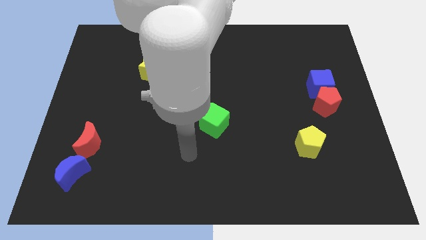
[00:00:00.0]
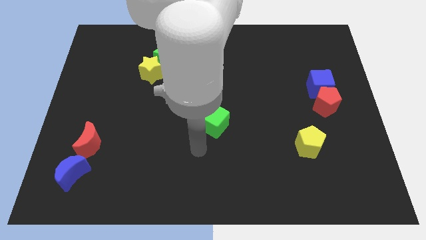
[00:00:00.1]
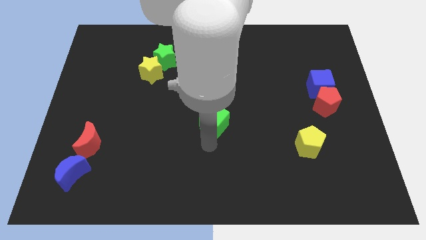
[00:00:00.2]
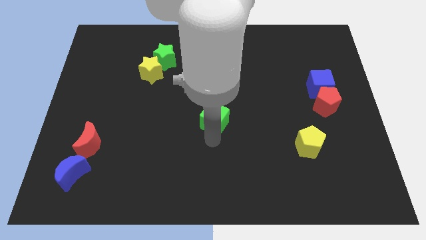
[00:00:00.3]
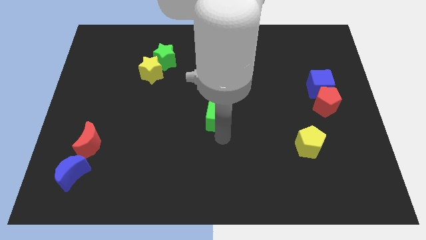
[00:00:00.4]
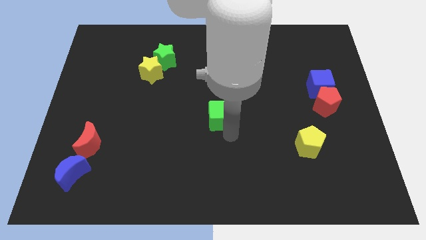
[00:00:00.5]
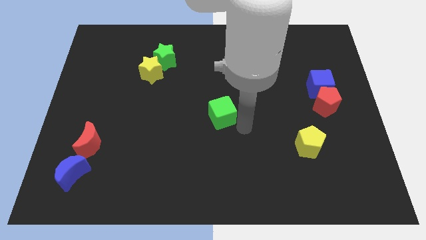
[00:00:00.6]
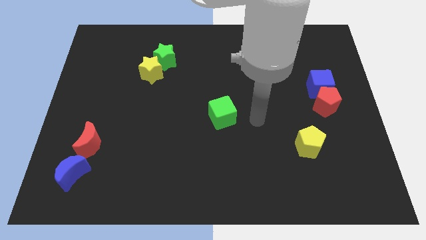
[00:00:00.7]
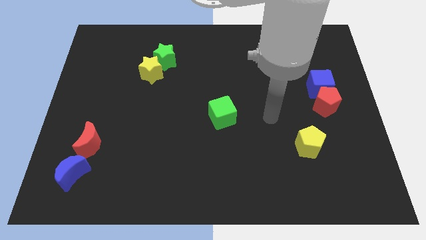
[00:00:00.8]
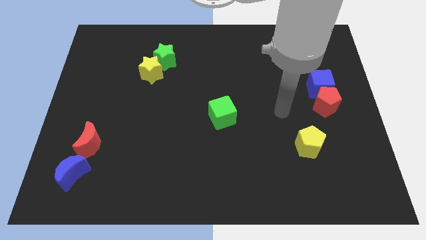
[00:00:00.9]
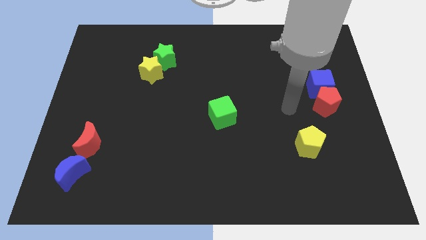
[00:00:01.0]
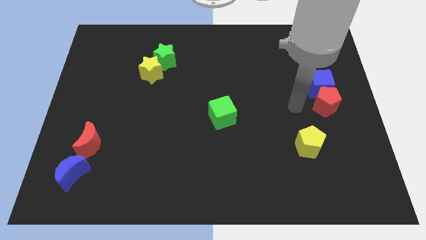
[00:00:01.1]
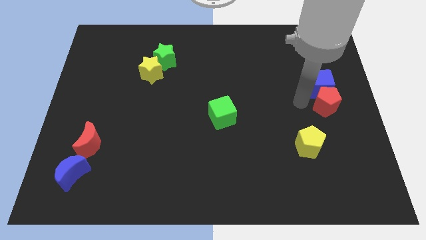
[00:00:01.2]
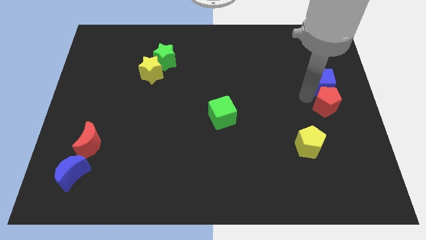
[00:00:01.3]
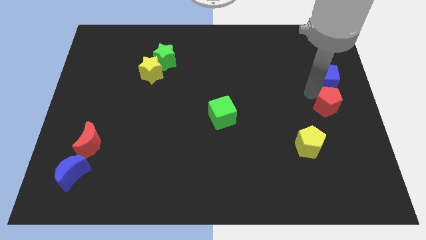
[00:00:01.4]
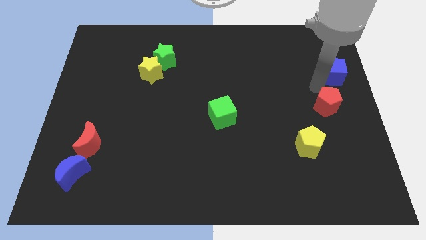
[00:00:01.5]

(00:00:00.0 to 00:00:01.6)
move the red pentagon away from the blue cube

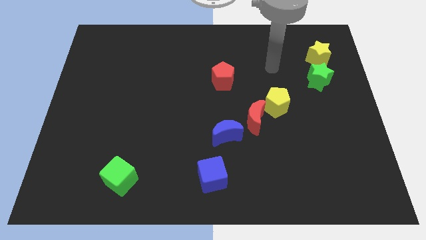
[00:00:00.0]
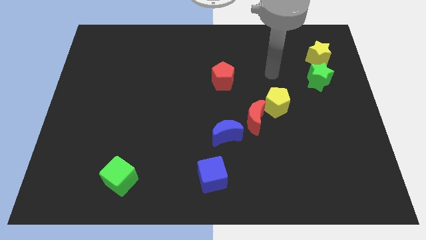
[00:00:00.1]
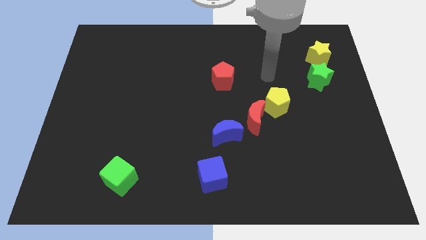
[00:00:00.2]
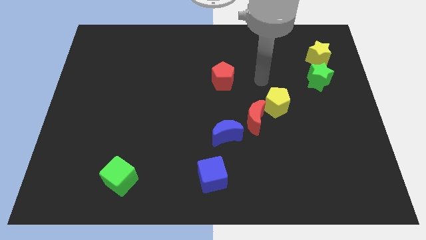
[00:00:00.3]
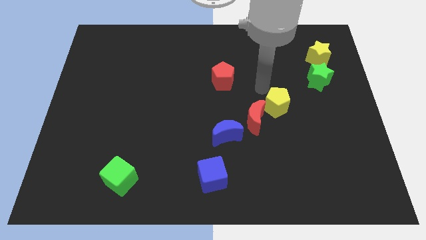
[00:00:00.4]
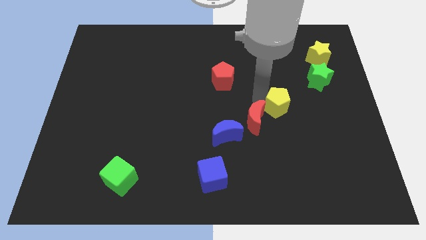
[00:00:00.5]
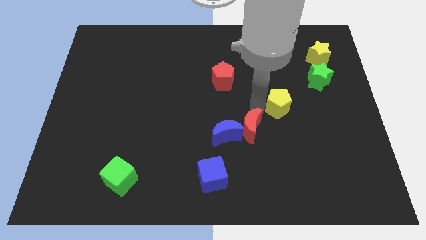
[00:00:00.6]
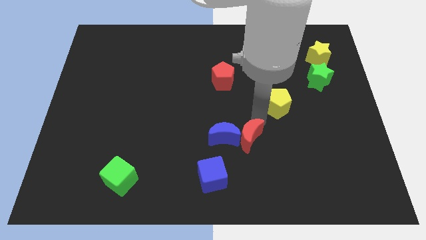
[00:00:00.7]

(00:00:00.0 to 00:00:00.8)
move the yellow pentagon away from the red moon

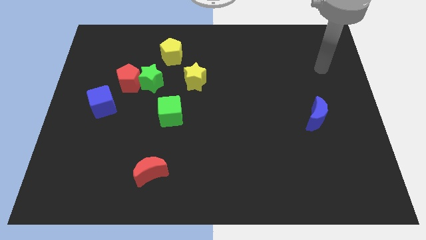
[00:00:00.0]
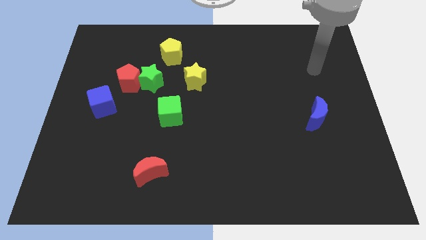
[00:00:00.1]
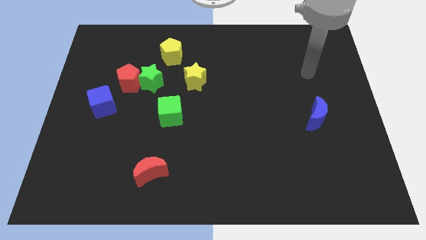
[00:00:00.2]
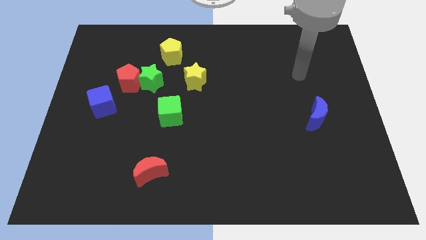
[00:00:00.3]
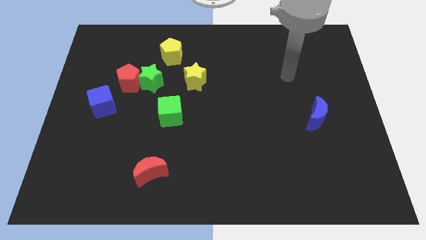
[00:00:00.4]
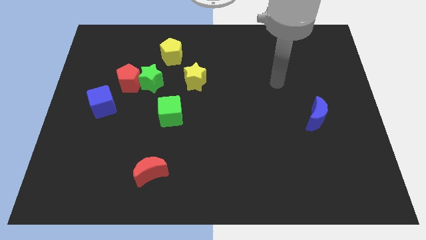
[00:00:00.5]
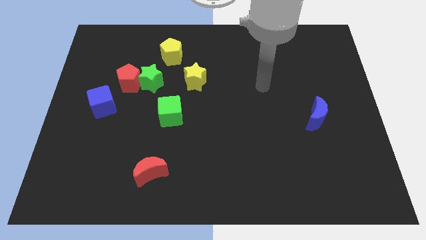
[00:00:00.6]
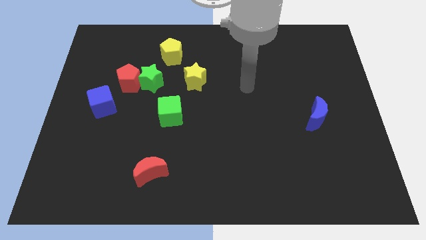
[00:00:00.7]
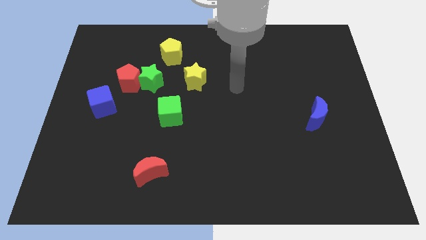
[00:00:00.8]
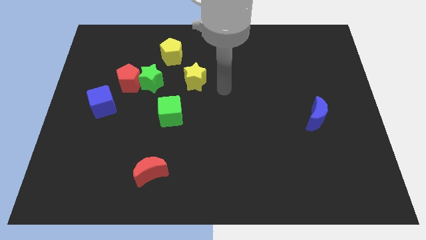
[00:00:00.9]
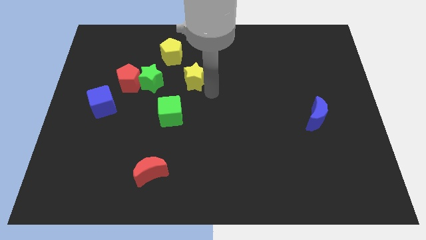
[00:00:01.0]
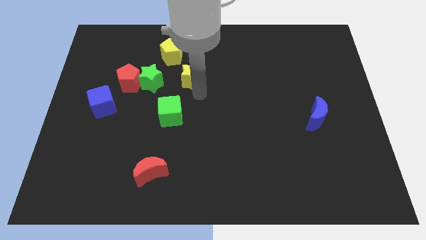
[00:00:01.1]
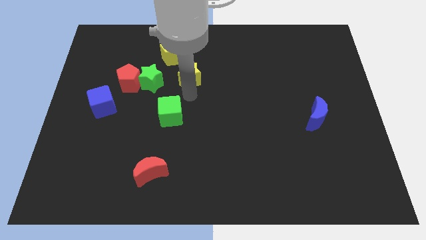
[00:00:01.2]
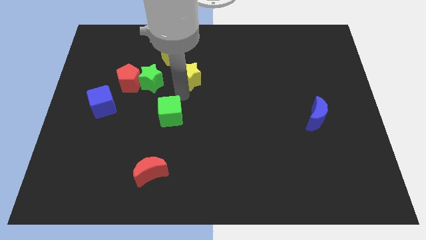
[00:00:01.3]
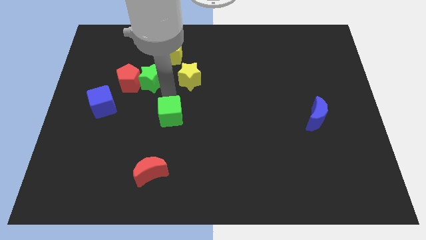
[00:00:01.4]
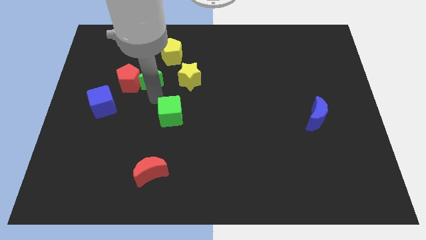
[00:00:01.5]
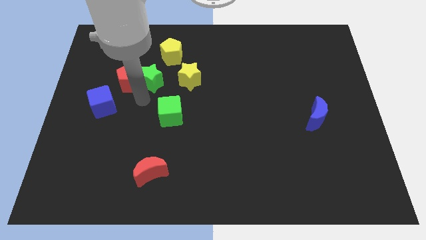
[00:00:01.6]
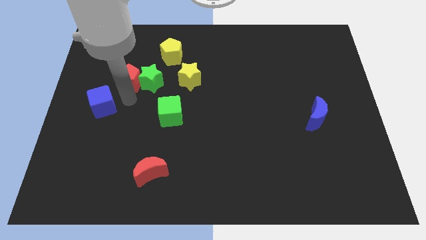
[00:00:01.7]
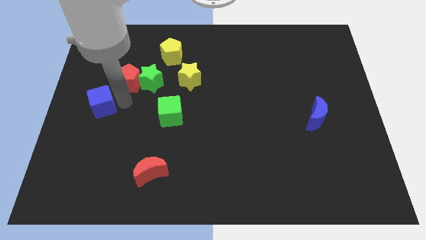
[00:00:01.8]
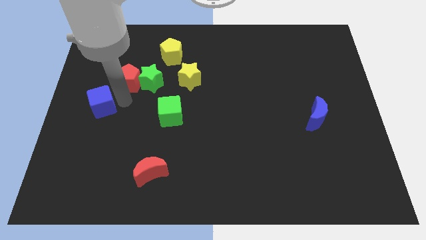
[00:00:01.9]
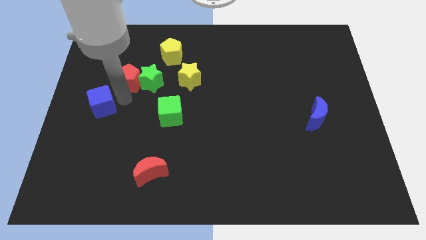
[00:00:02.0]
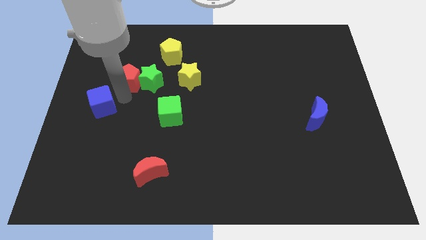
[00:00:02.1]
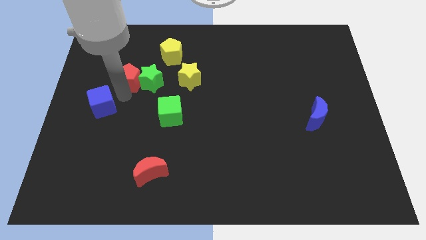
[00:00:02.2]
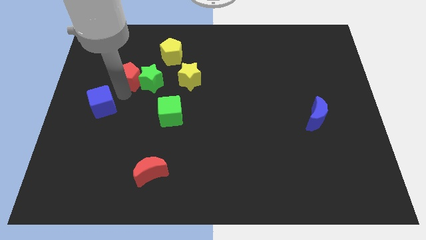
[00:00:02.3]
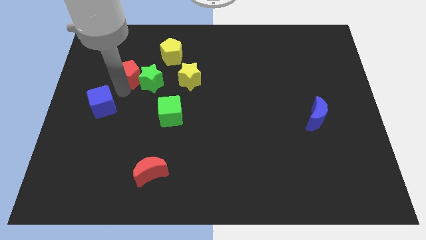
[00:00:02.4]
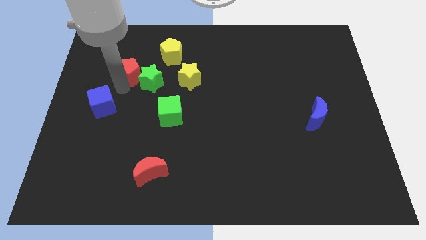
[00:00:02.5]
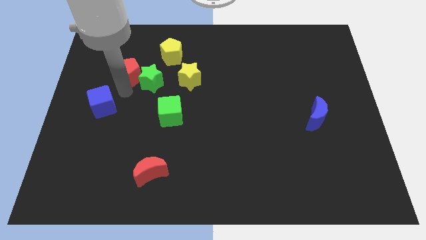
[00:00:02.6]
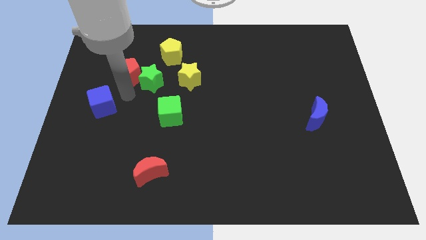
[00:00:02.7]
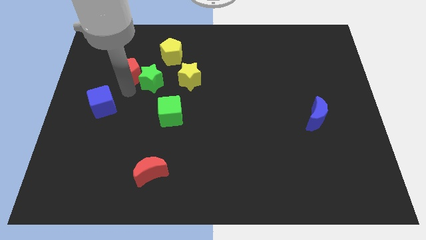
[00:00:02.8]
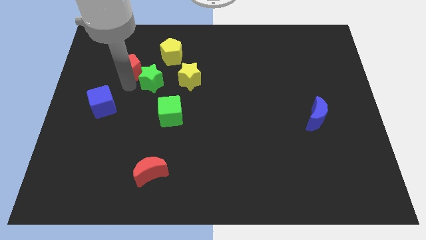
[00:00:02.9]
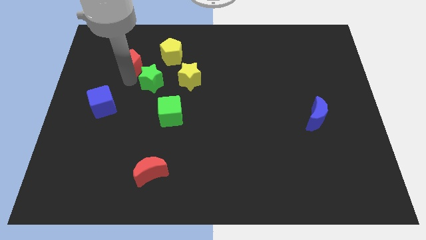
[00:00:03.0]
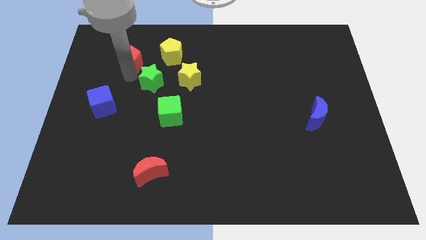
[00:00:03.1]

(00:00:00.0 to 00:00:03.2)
pull the red pentagon apart from the green star and blue cube

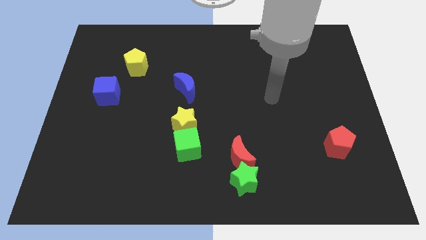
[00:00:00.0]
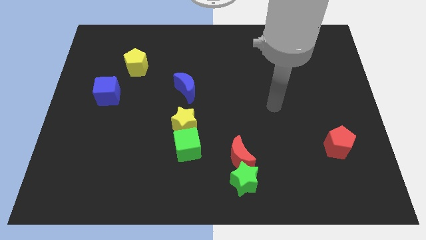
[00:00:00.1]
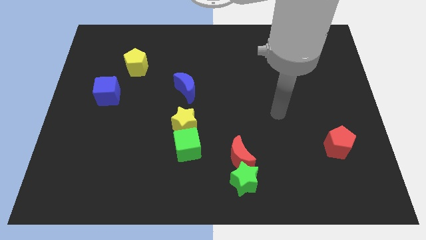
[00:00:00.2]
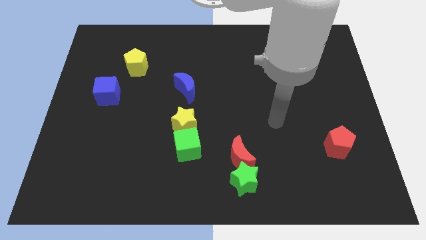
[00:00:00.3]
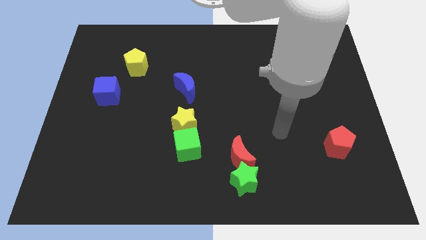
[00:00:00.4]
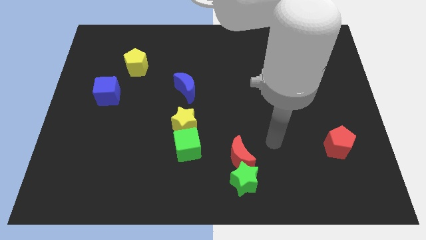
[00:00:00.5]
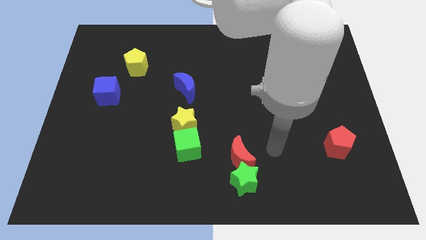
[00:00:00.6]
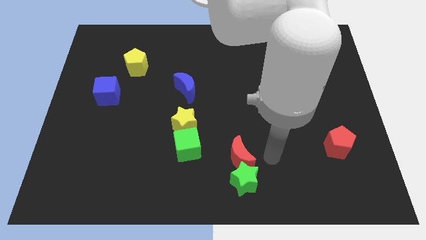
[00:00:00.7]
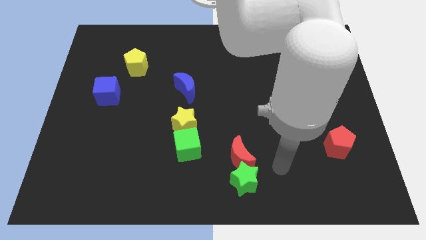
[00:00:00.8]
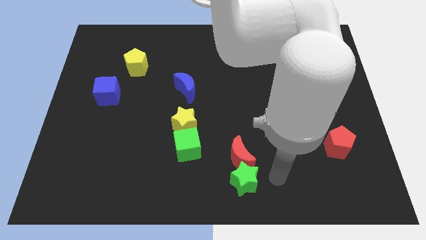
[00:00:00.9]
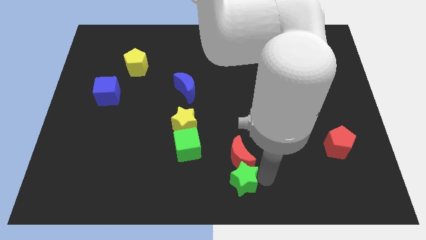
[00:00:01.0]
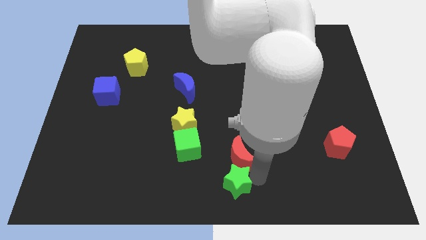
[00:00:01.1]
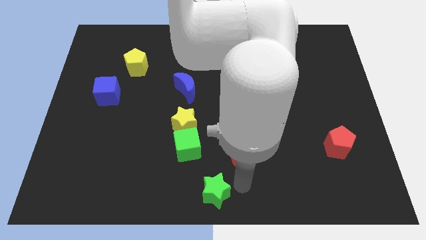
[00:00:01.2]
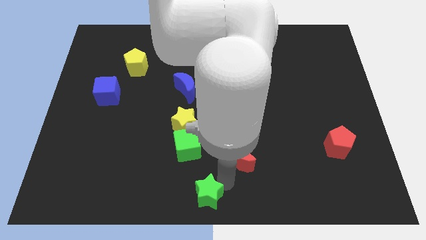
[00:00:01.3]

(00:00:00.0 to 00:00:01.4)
move the red moon away from the green star

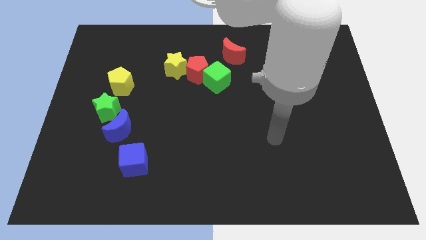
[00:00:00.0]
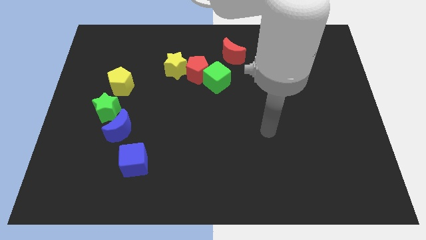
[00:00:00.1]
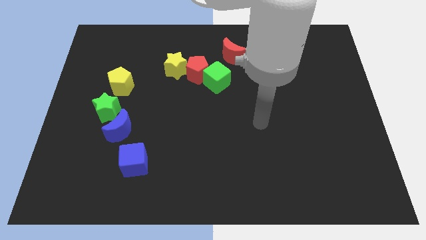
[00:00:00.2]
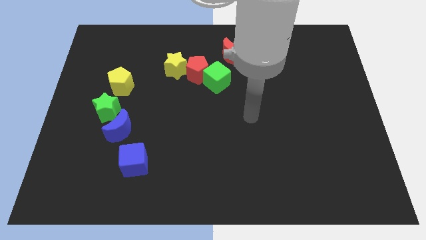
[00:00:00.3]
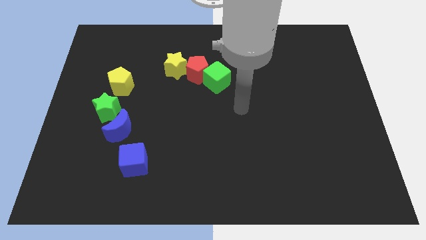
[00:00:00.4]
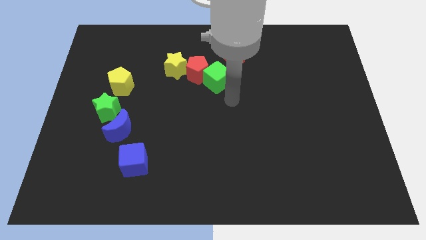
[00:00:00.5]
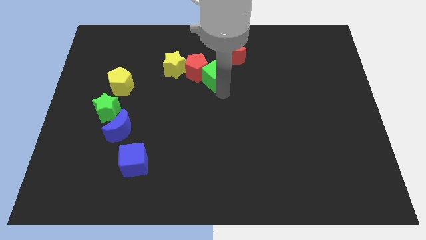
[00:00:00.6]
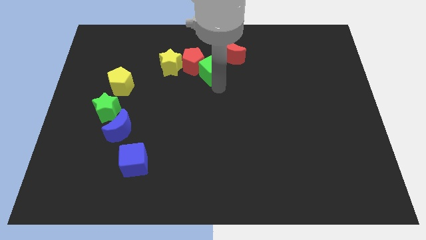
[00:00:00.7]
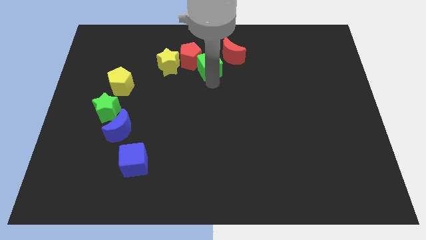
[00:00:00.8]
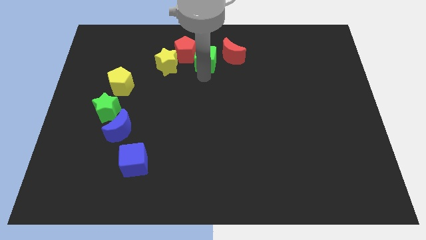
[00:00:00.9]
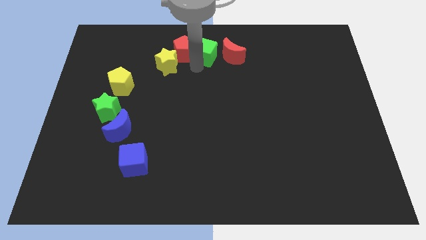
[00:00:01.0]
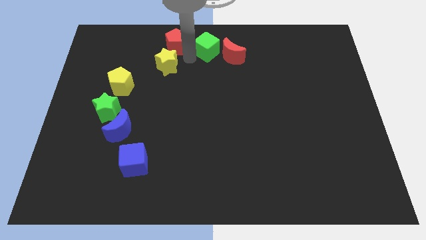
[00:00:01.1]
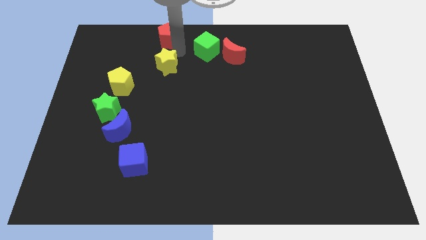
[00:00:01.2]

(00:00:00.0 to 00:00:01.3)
separate the yellow star from the red pentagon

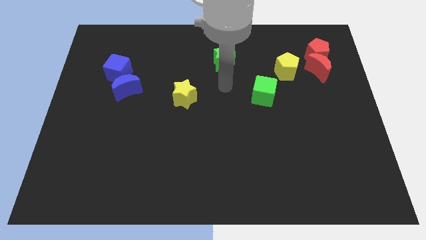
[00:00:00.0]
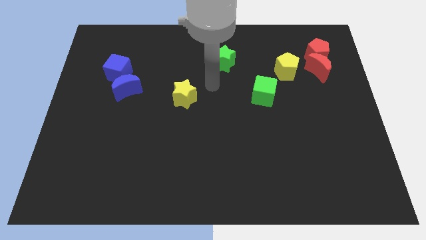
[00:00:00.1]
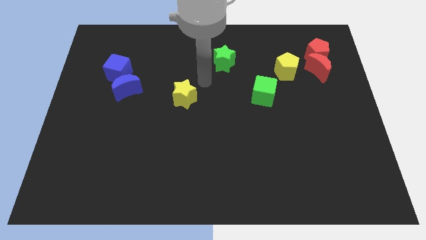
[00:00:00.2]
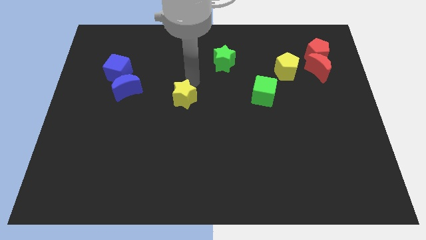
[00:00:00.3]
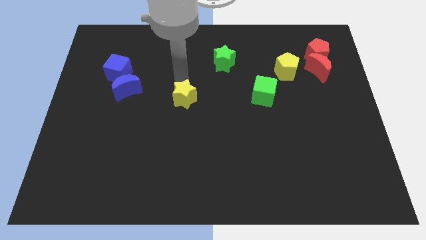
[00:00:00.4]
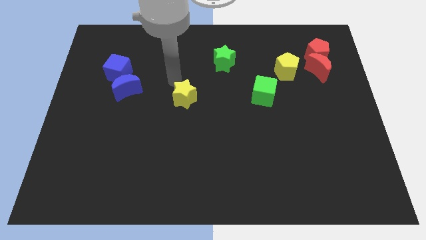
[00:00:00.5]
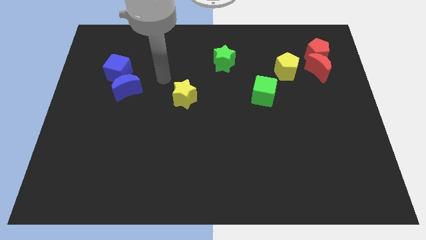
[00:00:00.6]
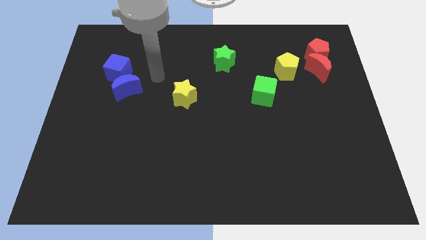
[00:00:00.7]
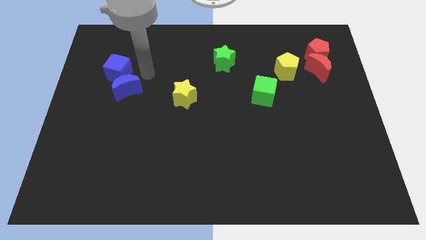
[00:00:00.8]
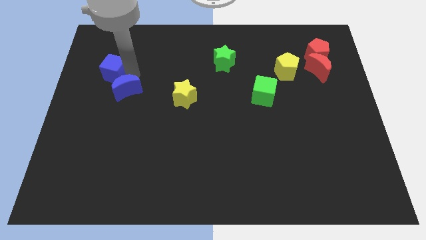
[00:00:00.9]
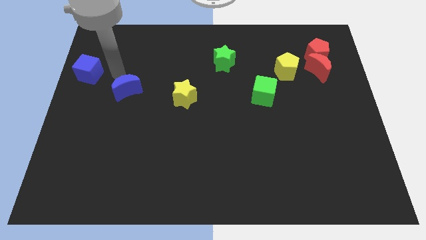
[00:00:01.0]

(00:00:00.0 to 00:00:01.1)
separate the blue moon from the blue cube
